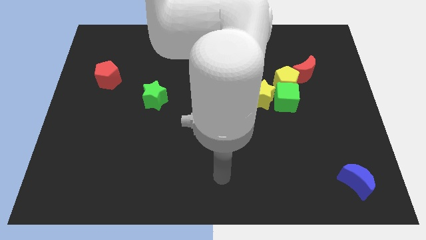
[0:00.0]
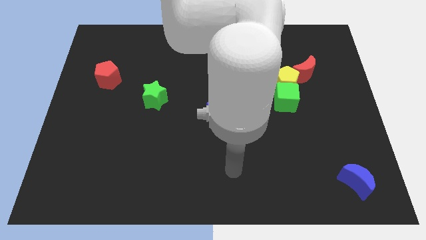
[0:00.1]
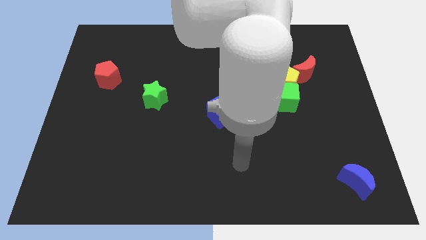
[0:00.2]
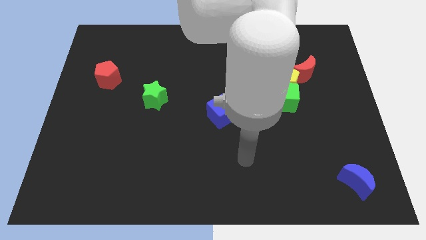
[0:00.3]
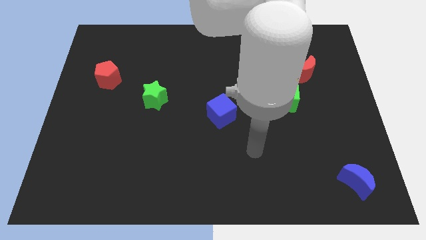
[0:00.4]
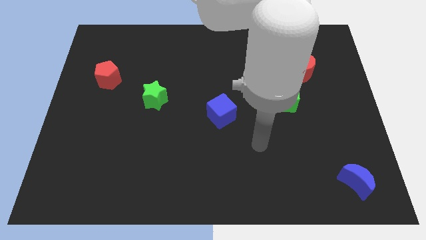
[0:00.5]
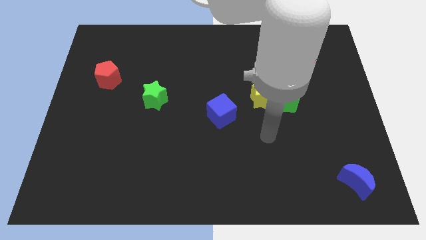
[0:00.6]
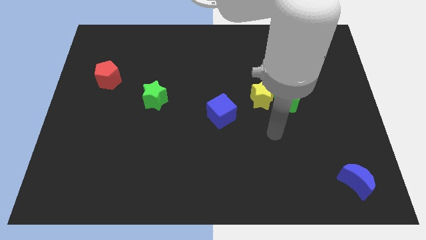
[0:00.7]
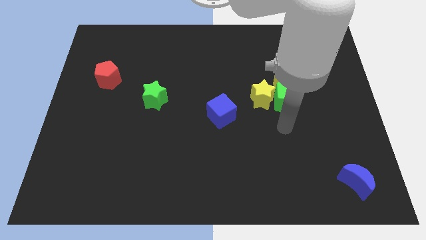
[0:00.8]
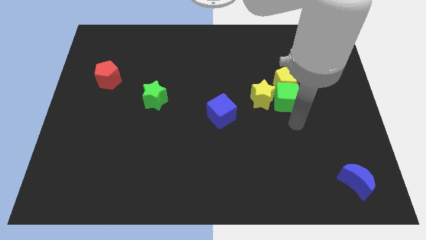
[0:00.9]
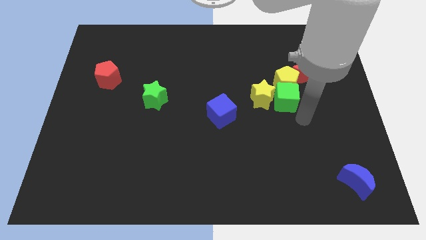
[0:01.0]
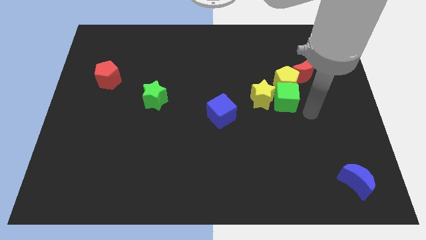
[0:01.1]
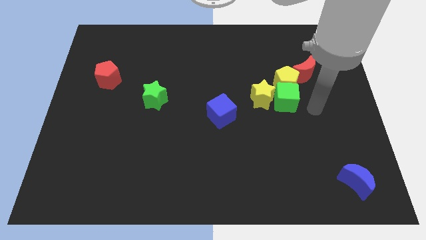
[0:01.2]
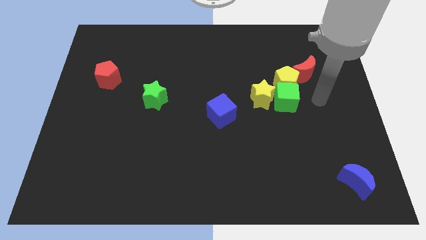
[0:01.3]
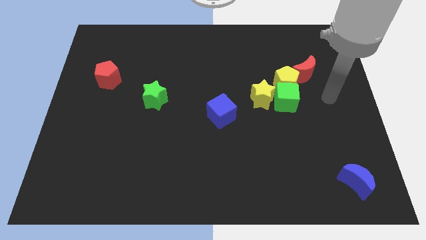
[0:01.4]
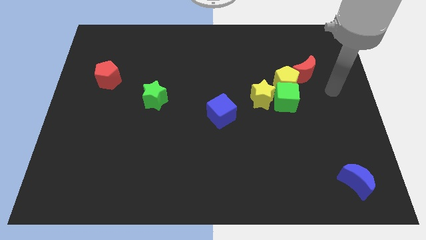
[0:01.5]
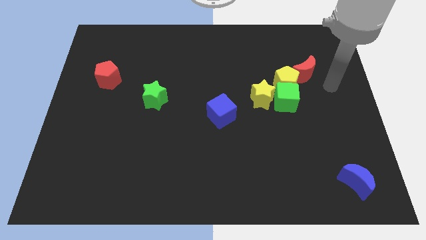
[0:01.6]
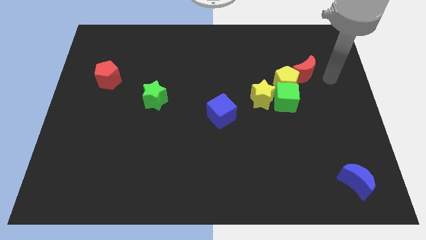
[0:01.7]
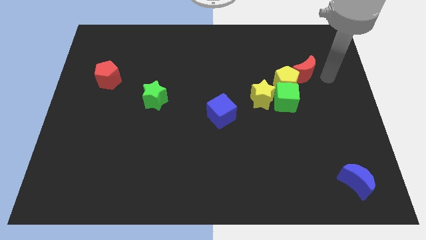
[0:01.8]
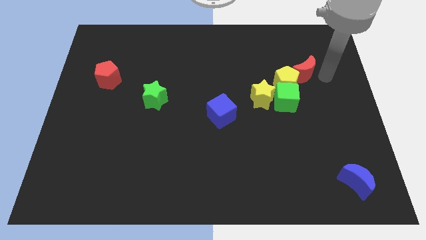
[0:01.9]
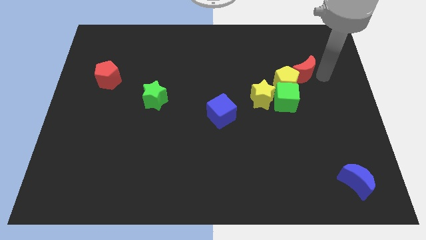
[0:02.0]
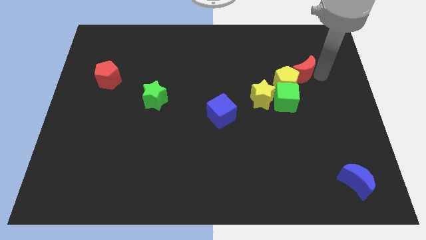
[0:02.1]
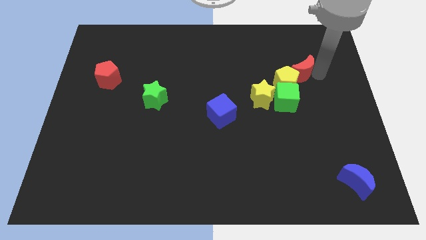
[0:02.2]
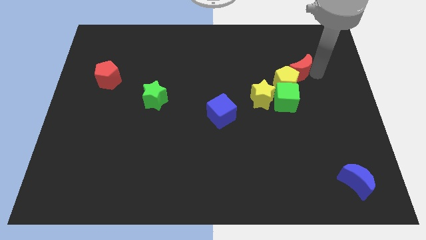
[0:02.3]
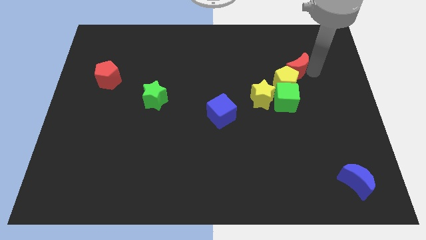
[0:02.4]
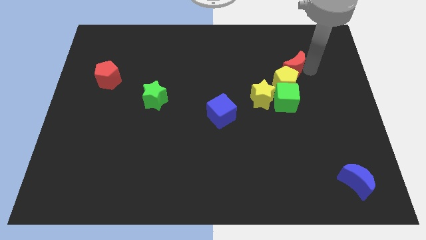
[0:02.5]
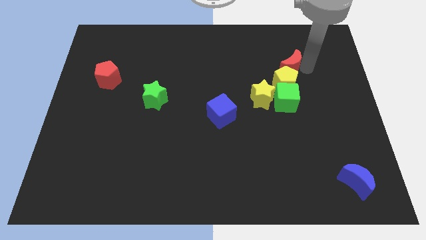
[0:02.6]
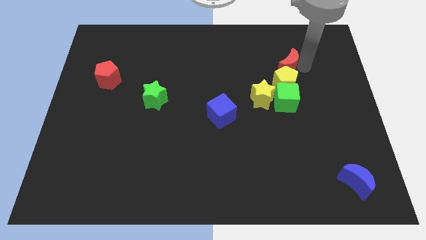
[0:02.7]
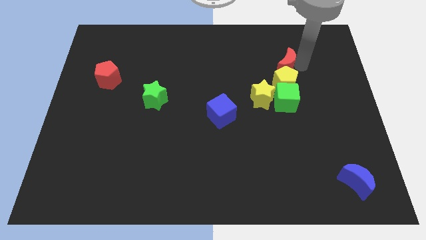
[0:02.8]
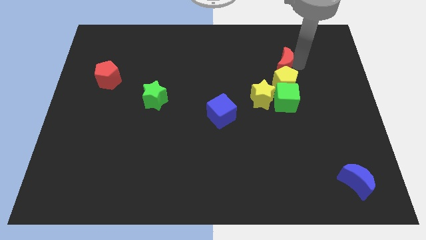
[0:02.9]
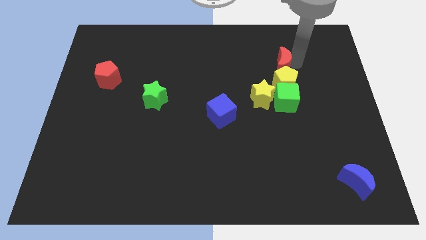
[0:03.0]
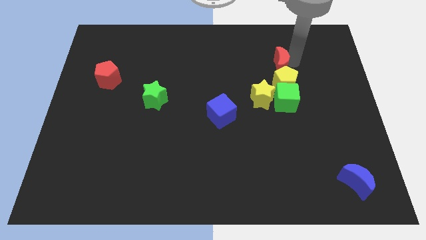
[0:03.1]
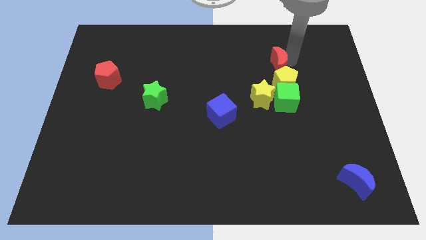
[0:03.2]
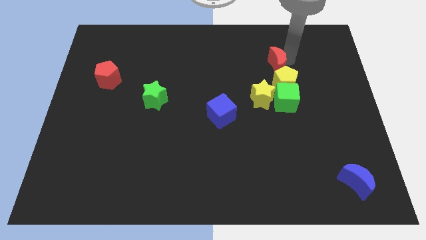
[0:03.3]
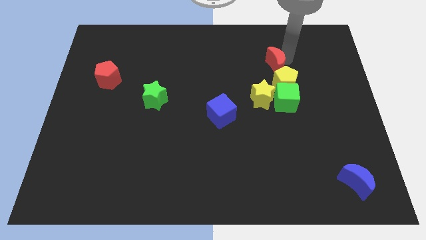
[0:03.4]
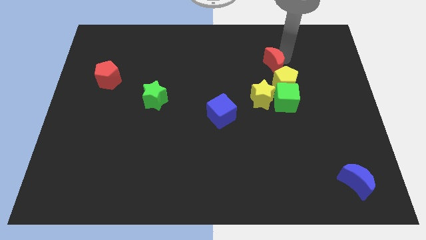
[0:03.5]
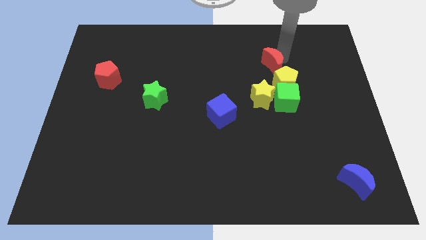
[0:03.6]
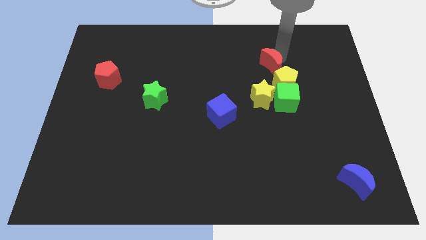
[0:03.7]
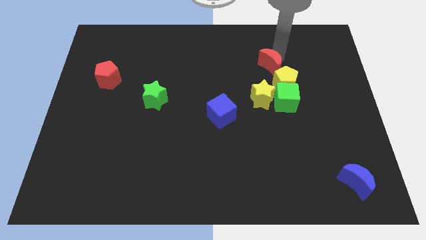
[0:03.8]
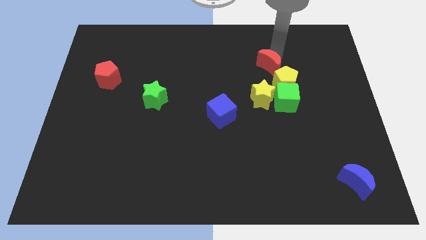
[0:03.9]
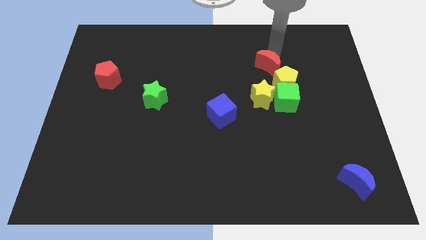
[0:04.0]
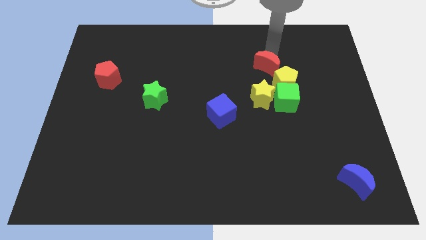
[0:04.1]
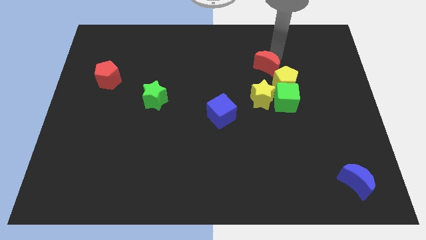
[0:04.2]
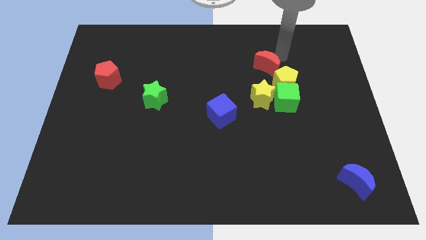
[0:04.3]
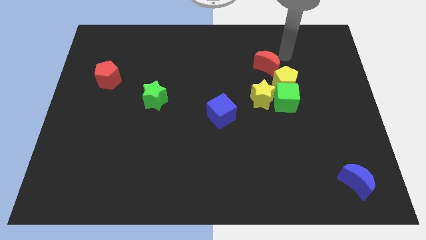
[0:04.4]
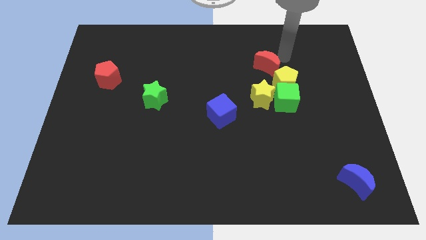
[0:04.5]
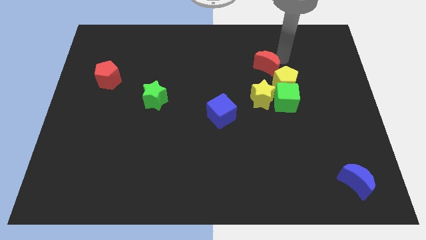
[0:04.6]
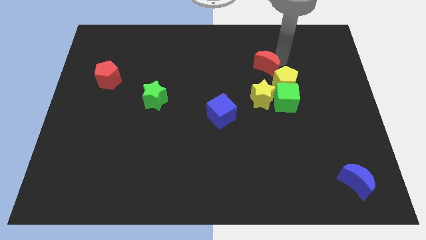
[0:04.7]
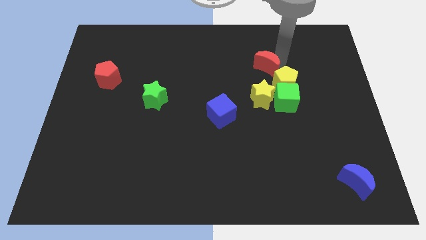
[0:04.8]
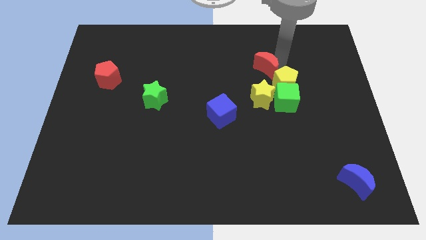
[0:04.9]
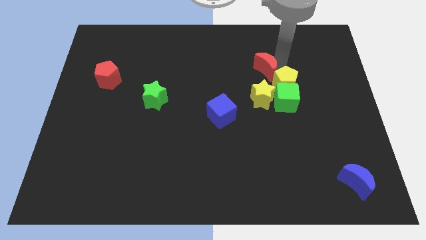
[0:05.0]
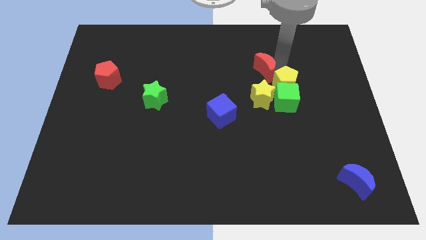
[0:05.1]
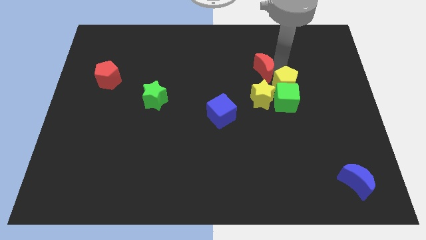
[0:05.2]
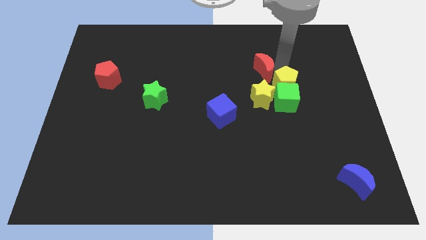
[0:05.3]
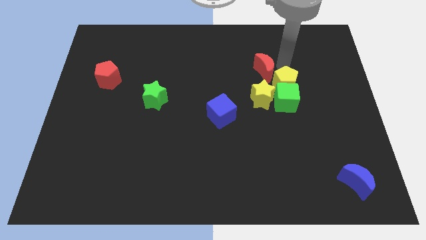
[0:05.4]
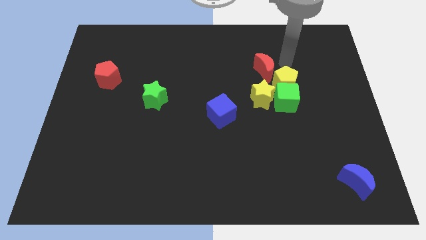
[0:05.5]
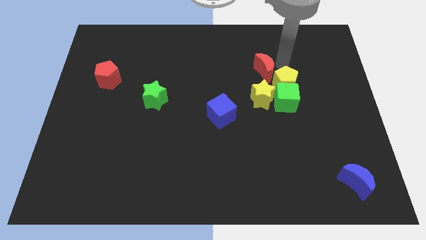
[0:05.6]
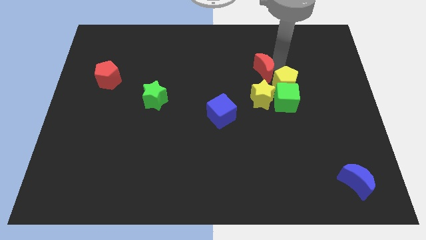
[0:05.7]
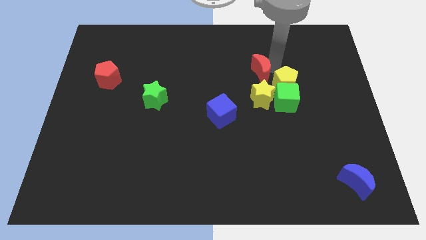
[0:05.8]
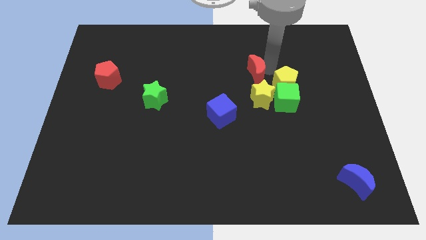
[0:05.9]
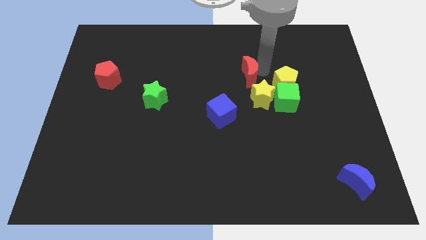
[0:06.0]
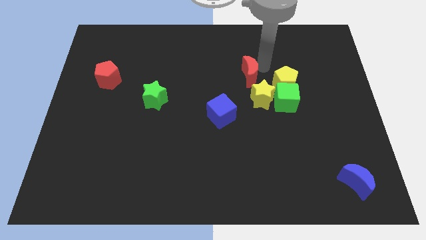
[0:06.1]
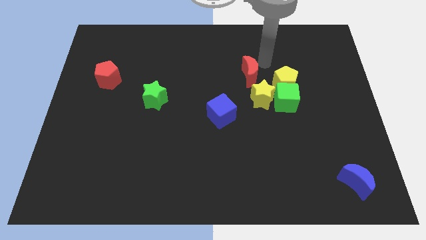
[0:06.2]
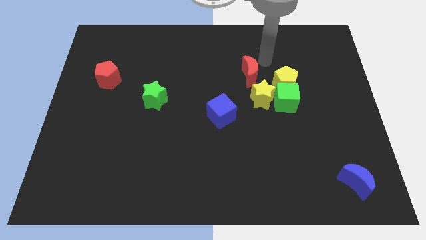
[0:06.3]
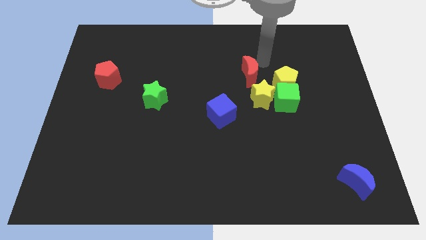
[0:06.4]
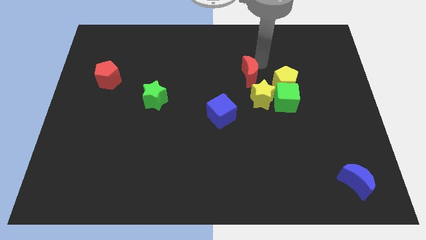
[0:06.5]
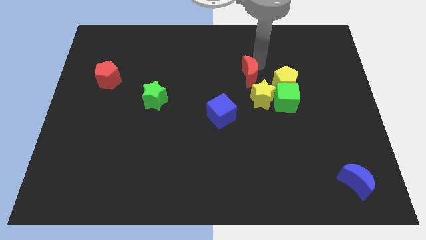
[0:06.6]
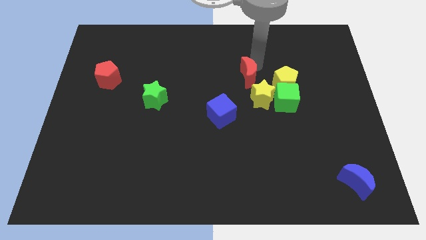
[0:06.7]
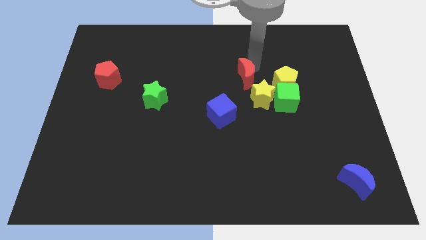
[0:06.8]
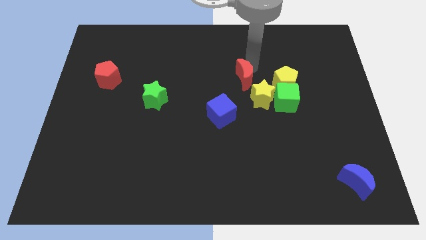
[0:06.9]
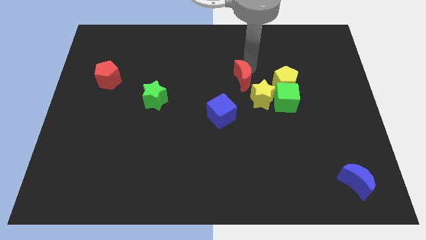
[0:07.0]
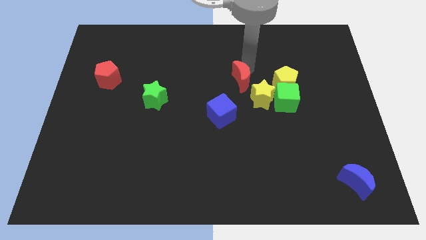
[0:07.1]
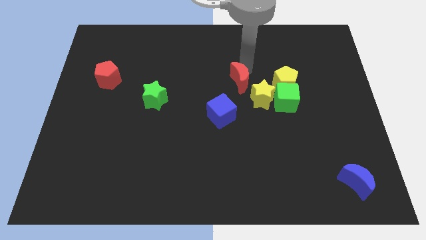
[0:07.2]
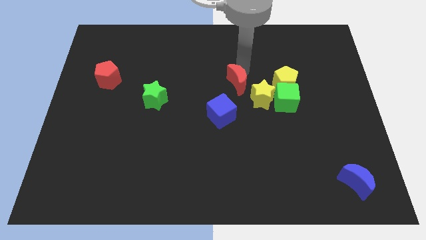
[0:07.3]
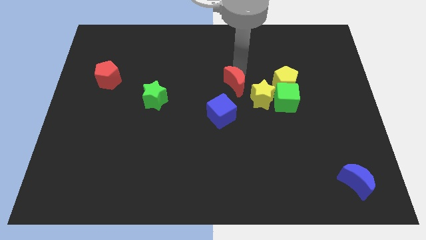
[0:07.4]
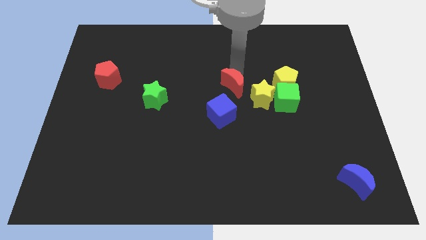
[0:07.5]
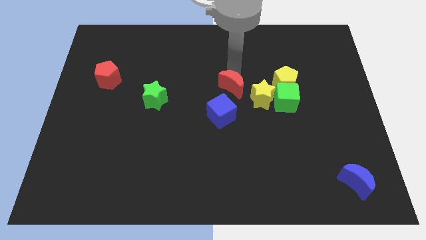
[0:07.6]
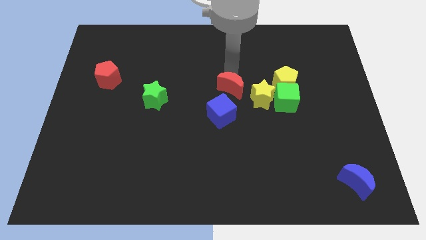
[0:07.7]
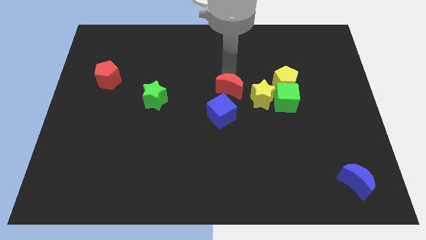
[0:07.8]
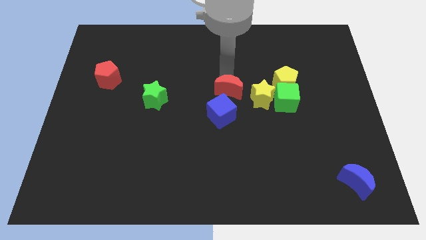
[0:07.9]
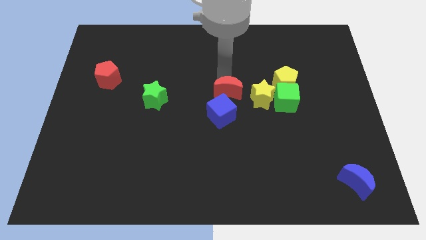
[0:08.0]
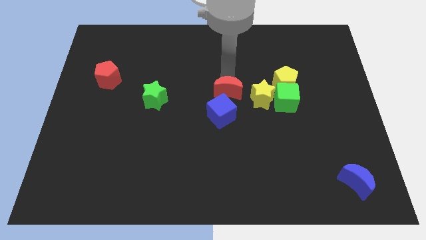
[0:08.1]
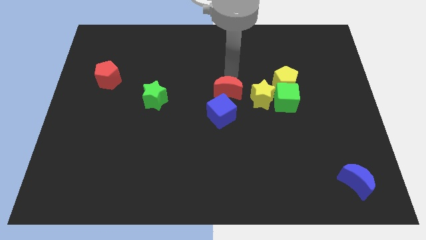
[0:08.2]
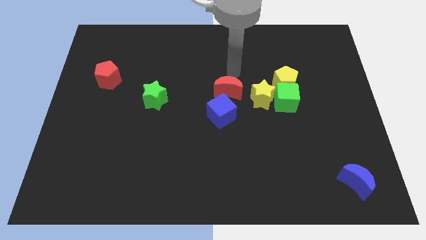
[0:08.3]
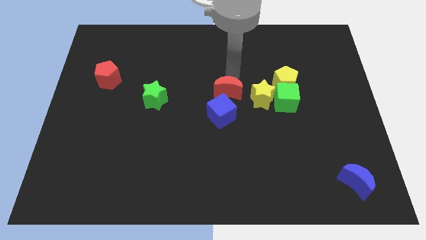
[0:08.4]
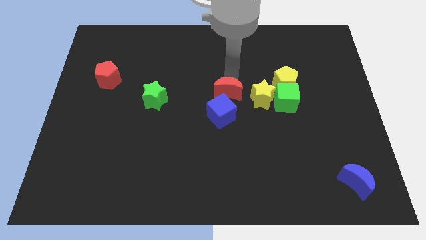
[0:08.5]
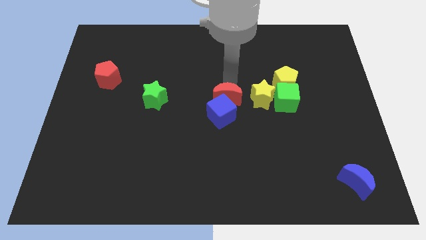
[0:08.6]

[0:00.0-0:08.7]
push the red moon next to the blue cube
